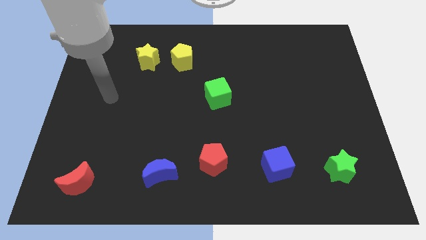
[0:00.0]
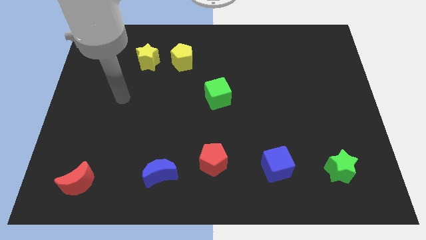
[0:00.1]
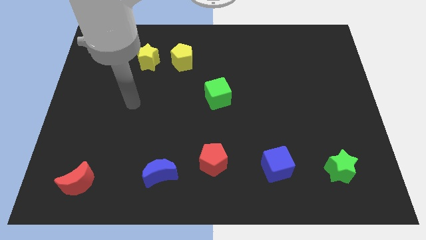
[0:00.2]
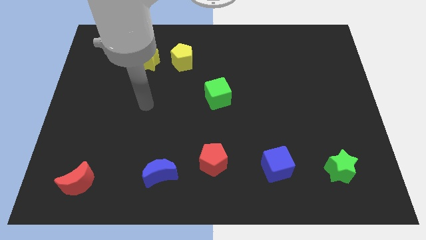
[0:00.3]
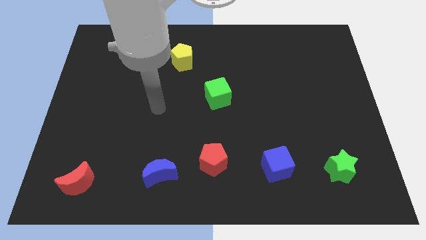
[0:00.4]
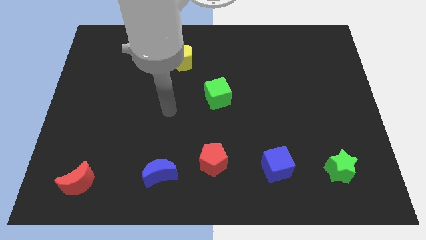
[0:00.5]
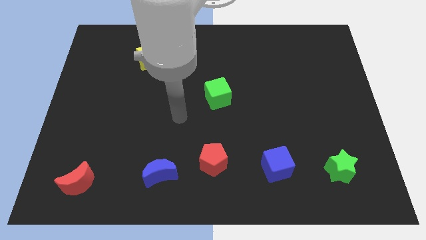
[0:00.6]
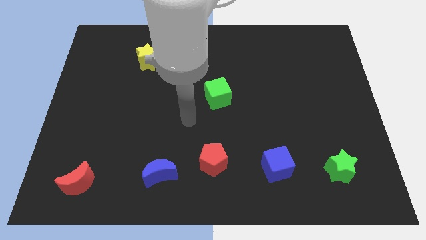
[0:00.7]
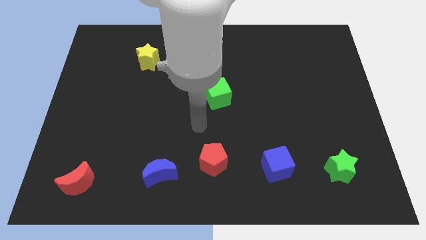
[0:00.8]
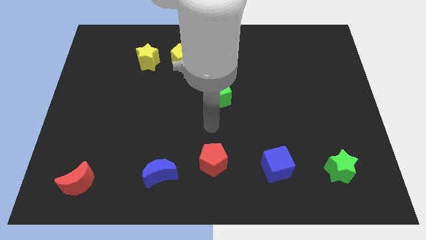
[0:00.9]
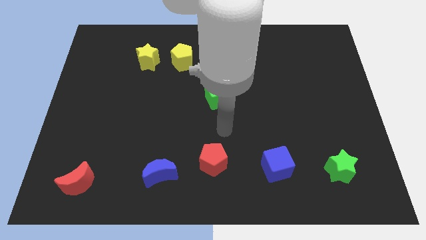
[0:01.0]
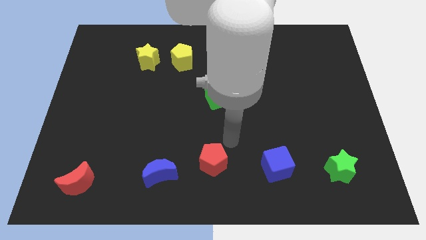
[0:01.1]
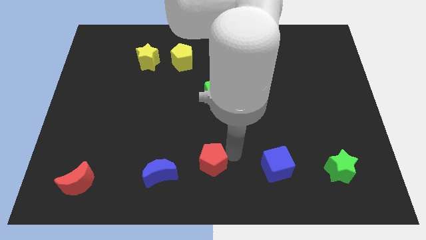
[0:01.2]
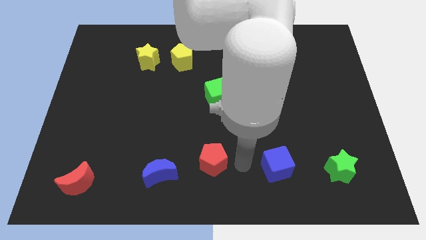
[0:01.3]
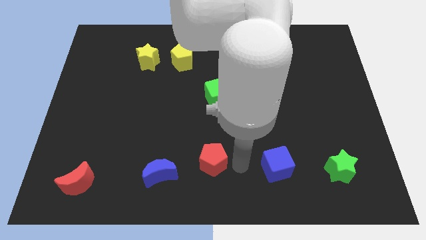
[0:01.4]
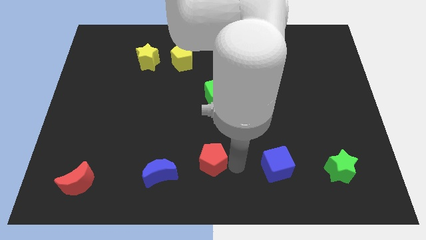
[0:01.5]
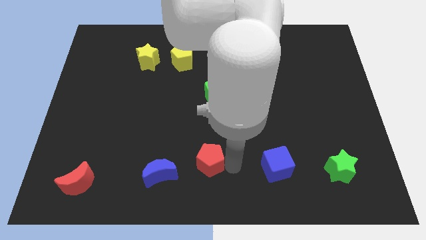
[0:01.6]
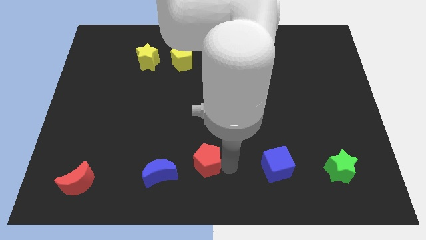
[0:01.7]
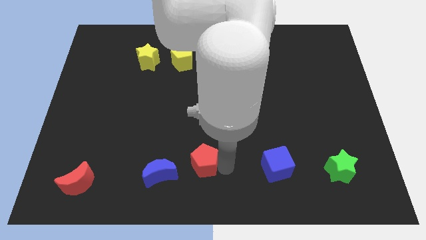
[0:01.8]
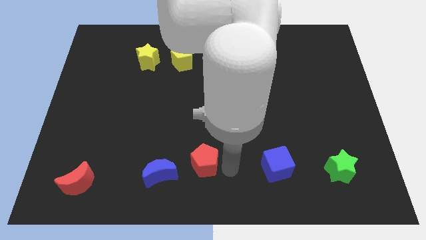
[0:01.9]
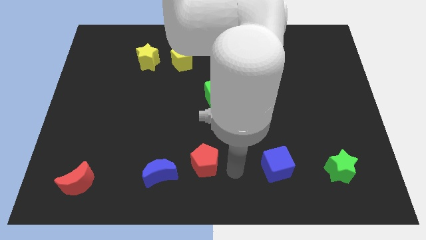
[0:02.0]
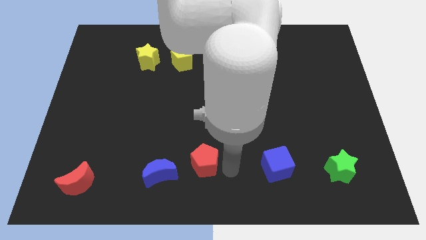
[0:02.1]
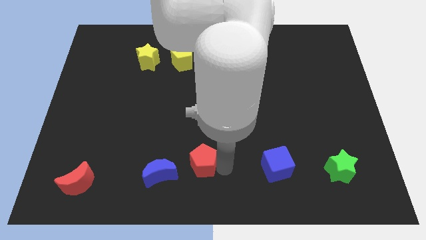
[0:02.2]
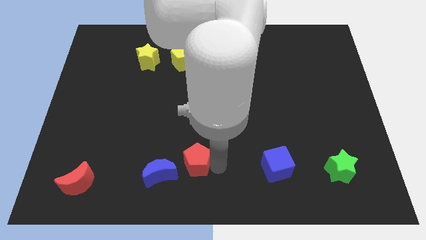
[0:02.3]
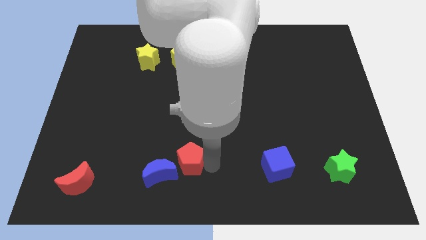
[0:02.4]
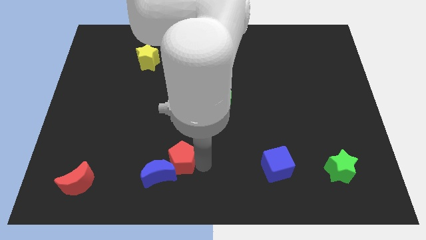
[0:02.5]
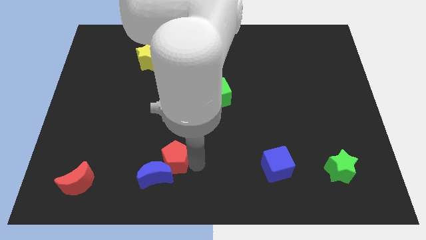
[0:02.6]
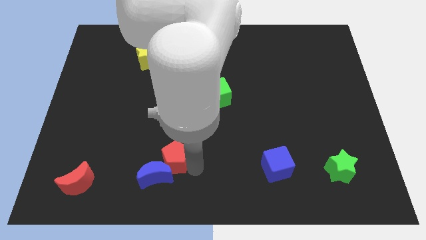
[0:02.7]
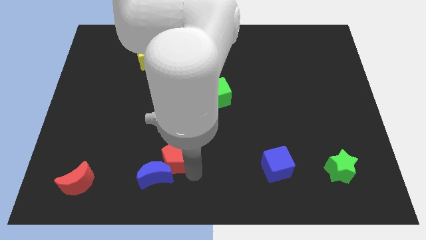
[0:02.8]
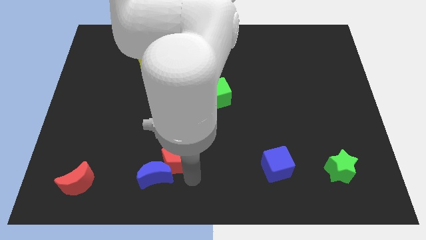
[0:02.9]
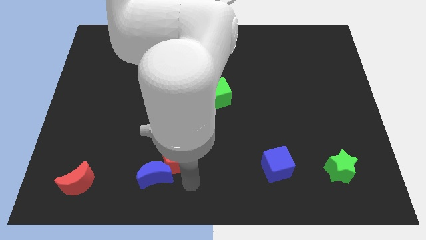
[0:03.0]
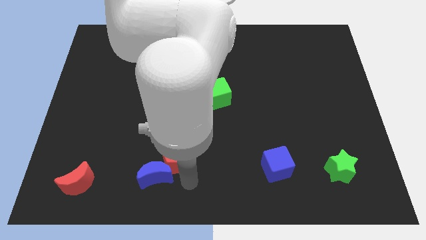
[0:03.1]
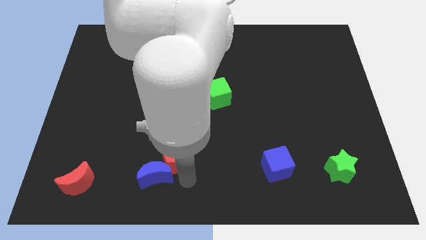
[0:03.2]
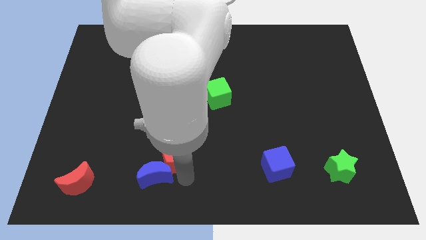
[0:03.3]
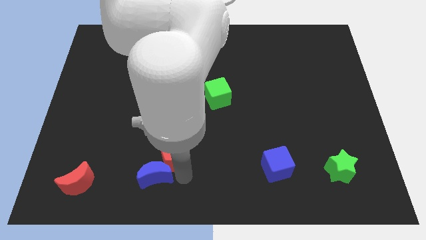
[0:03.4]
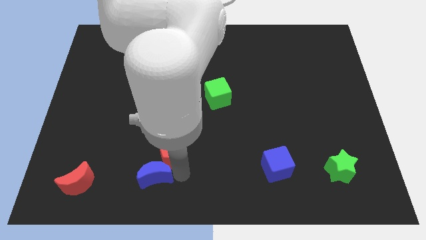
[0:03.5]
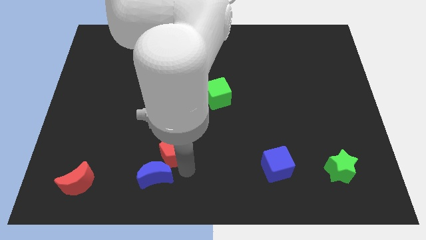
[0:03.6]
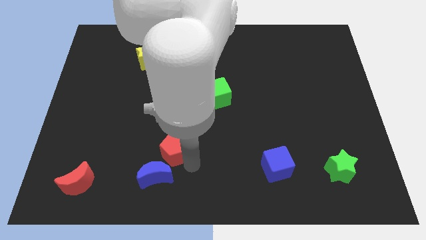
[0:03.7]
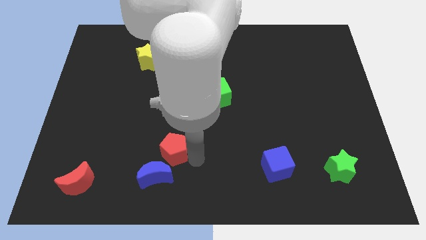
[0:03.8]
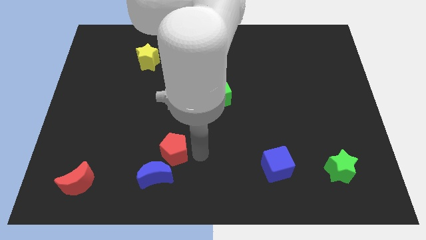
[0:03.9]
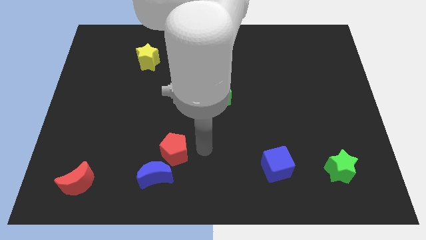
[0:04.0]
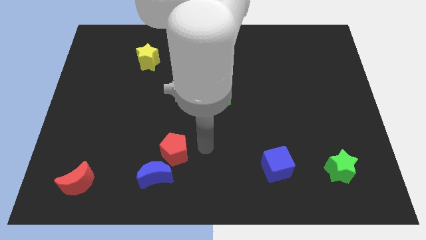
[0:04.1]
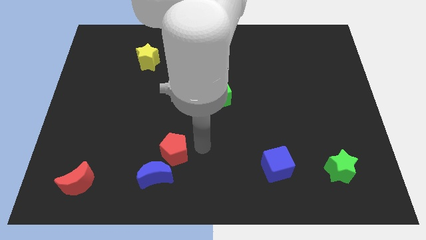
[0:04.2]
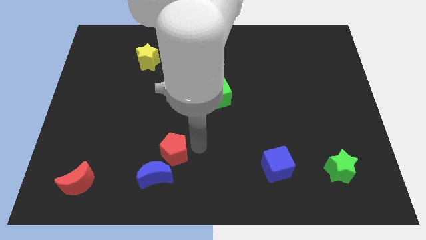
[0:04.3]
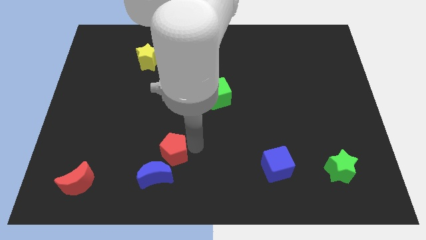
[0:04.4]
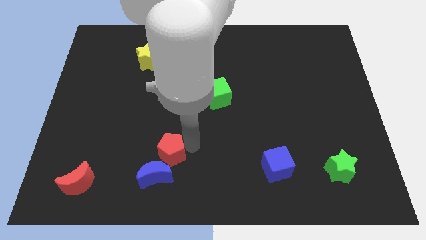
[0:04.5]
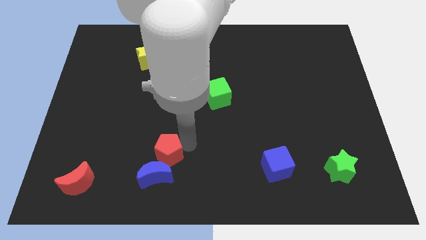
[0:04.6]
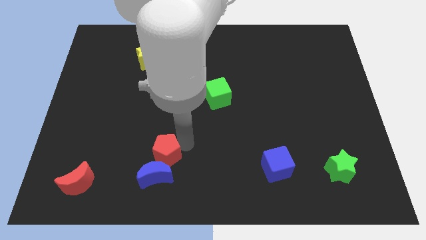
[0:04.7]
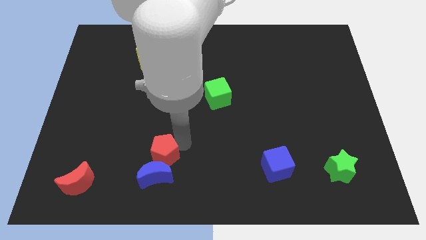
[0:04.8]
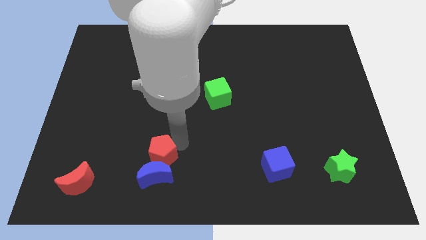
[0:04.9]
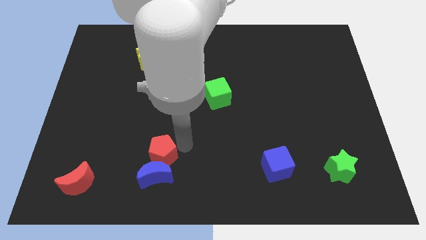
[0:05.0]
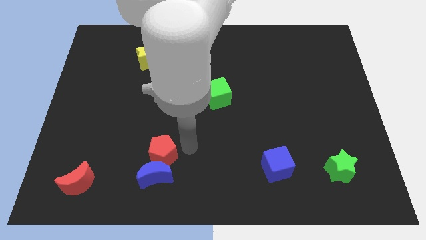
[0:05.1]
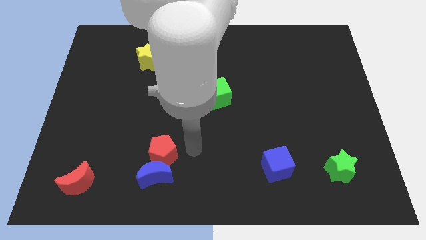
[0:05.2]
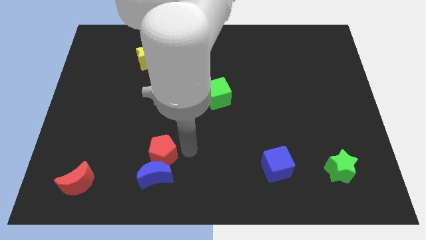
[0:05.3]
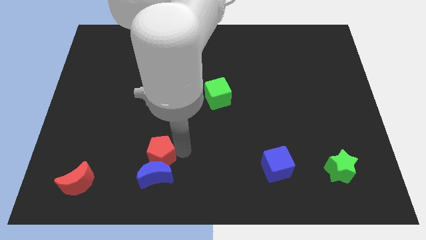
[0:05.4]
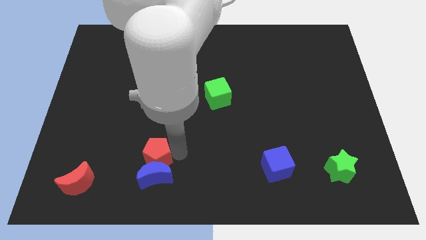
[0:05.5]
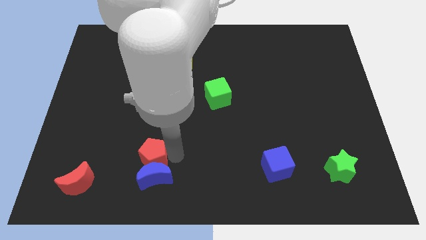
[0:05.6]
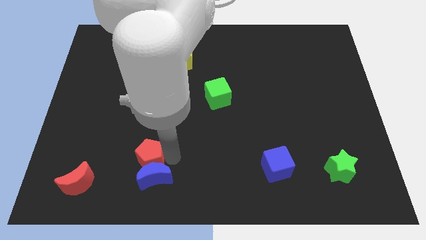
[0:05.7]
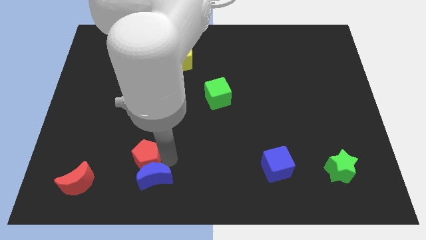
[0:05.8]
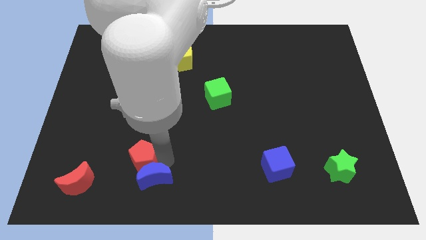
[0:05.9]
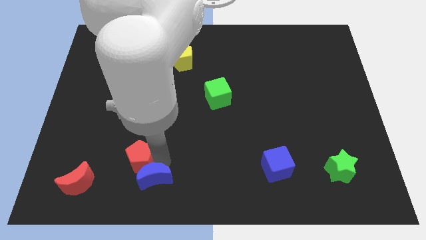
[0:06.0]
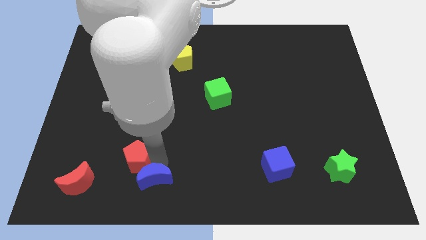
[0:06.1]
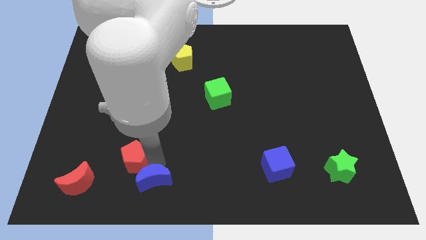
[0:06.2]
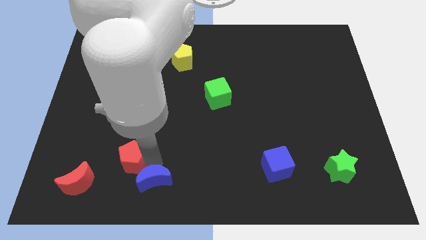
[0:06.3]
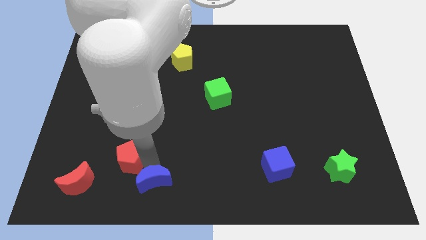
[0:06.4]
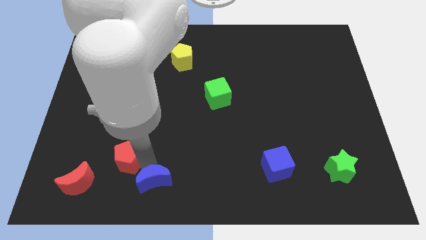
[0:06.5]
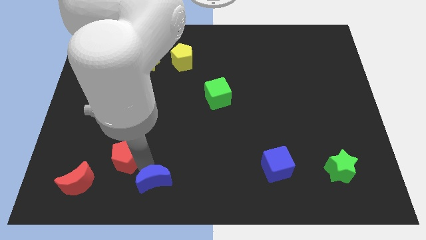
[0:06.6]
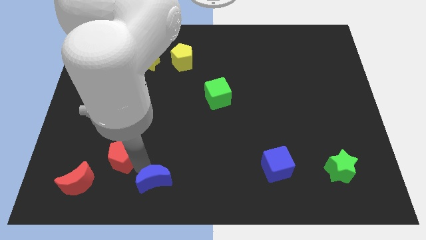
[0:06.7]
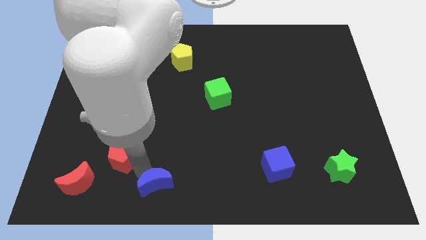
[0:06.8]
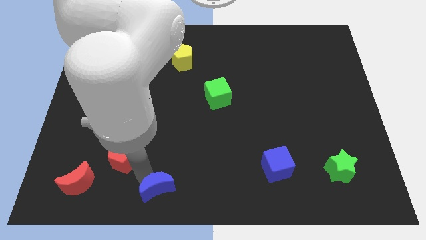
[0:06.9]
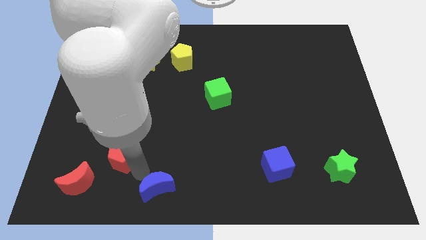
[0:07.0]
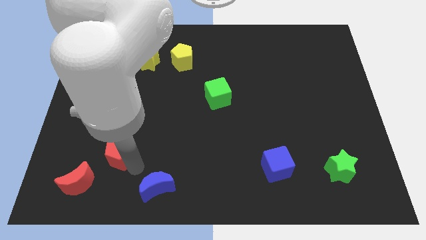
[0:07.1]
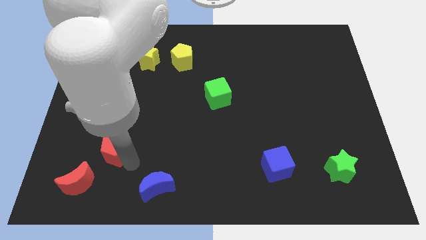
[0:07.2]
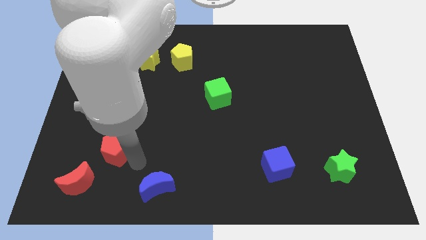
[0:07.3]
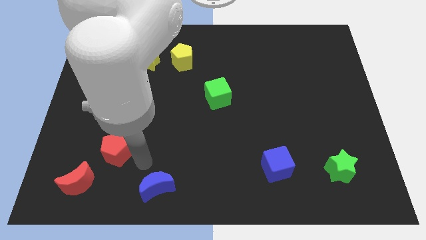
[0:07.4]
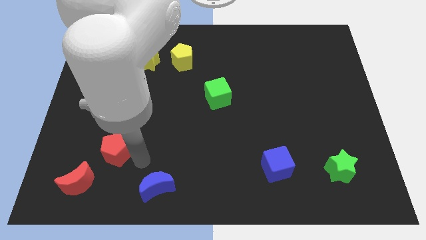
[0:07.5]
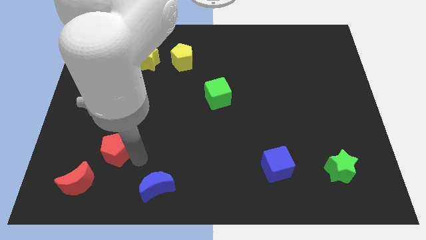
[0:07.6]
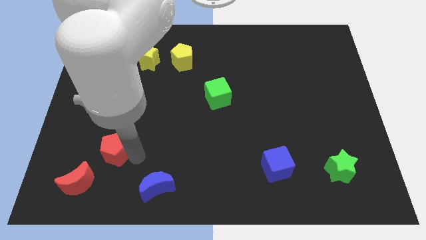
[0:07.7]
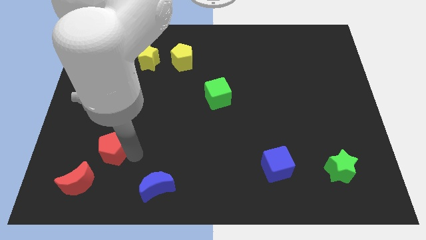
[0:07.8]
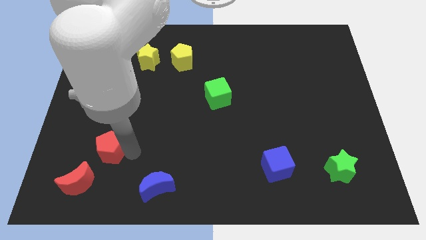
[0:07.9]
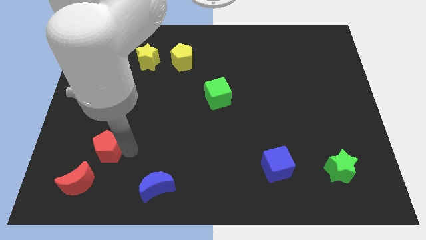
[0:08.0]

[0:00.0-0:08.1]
put the red pentagon to the top of the red moon
